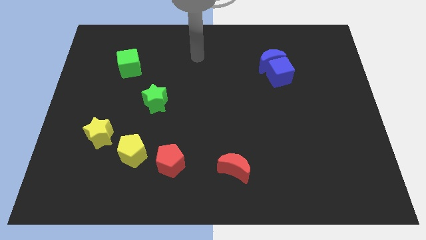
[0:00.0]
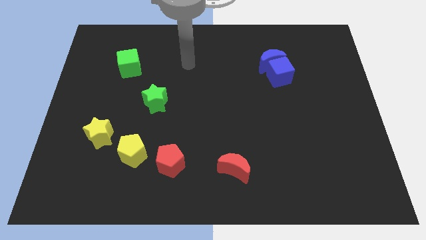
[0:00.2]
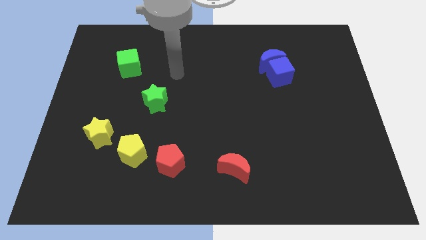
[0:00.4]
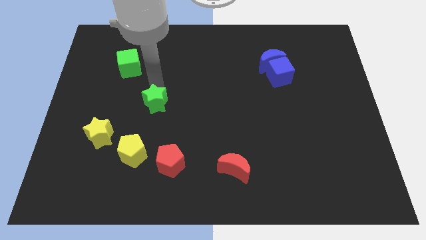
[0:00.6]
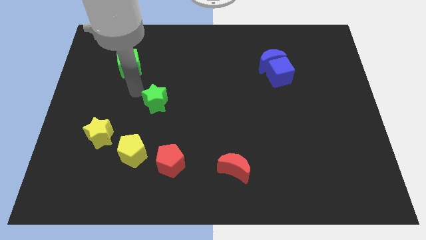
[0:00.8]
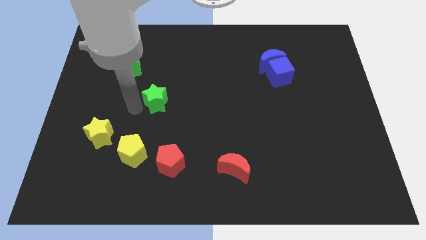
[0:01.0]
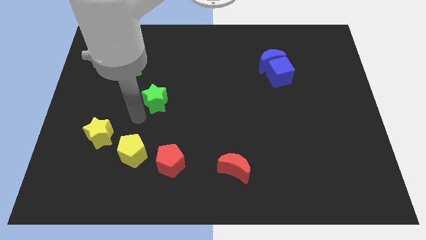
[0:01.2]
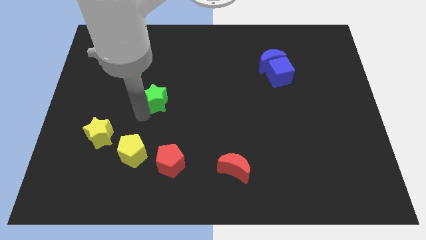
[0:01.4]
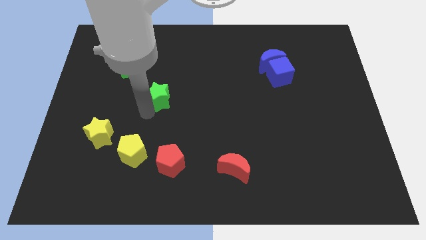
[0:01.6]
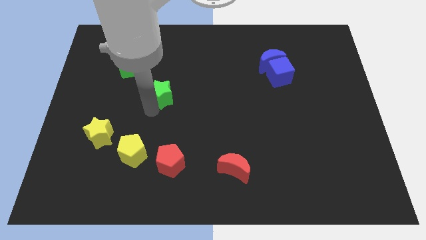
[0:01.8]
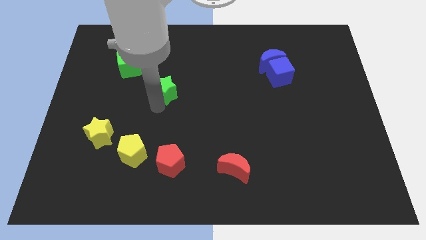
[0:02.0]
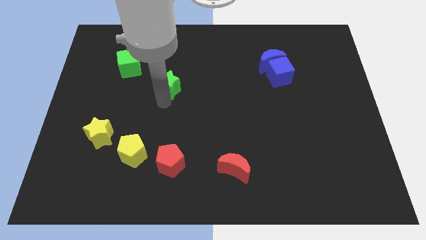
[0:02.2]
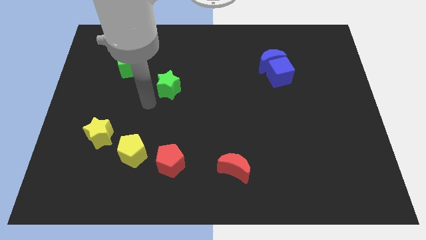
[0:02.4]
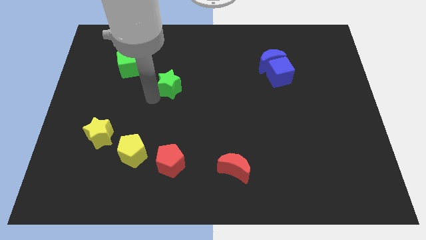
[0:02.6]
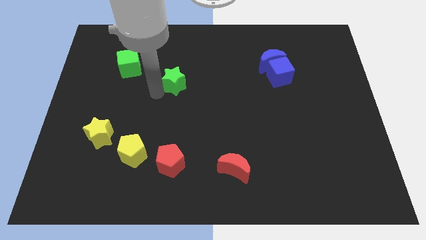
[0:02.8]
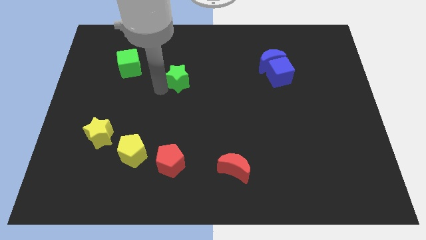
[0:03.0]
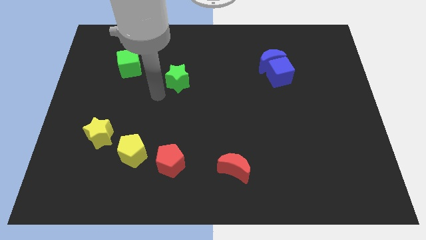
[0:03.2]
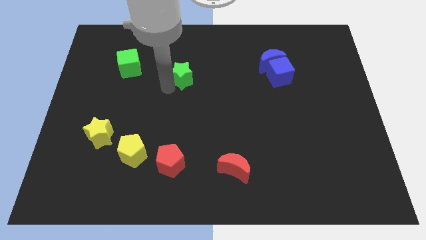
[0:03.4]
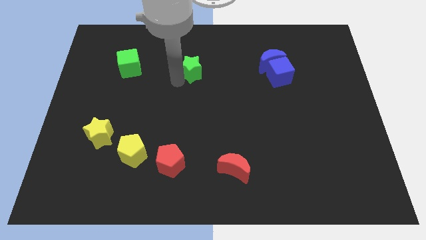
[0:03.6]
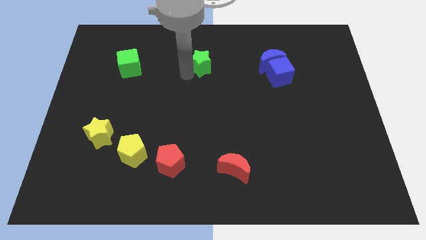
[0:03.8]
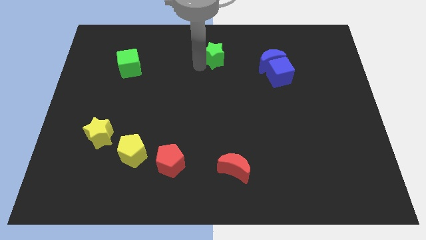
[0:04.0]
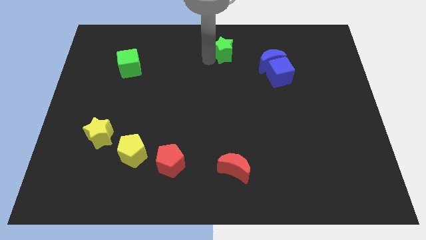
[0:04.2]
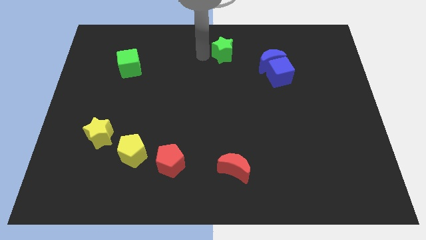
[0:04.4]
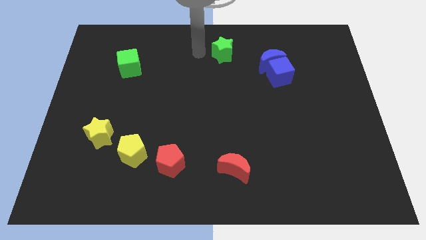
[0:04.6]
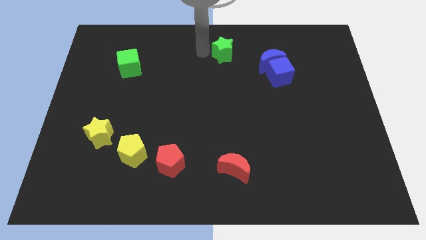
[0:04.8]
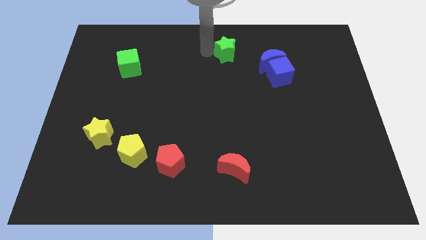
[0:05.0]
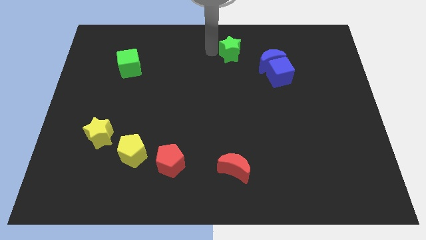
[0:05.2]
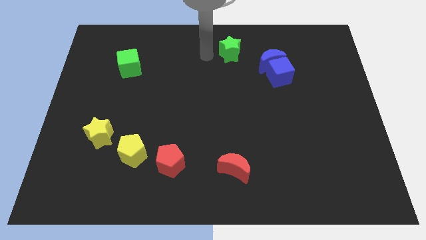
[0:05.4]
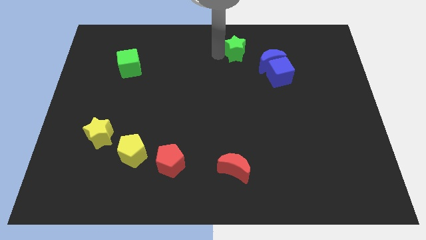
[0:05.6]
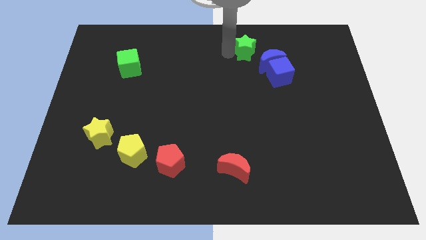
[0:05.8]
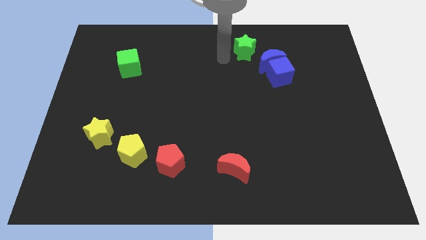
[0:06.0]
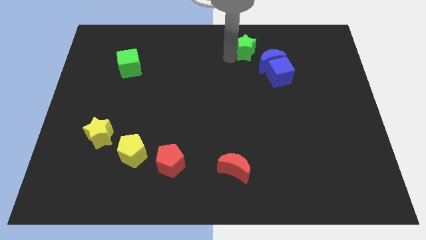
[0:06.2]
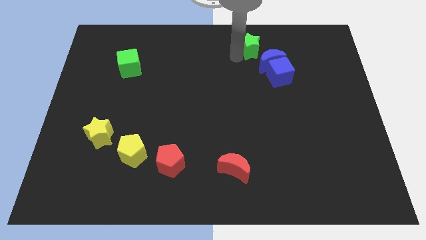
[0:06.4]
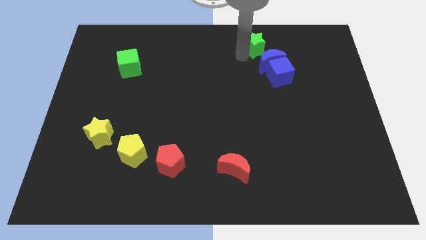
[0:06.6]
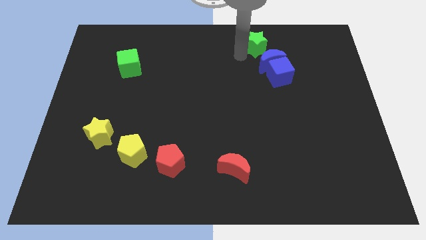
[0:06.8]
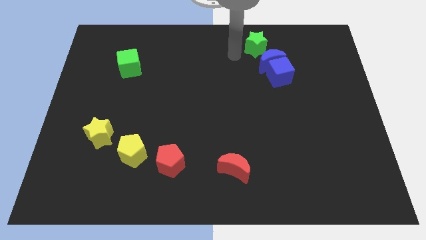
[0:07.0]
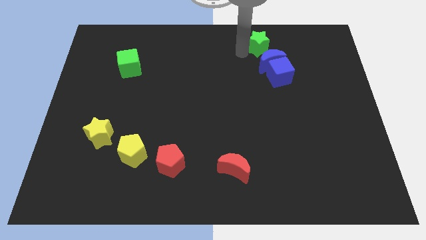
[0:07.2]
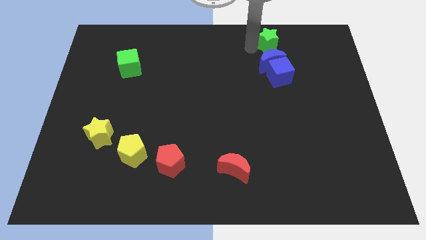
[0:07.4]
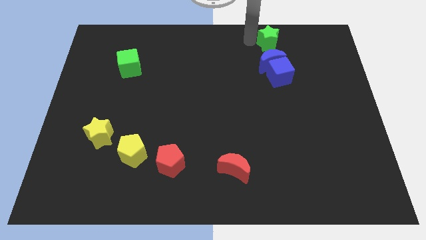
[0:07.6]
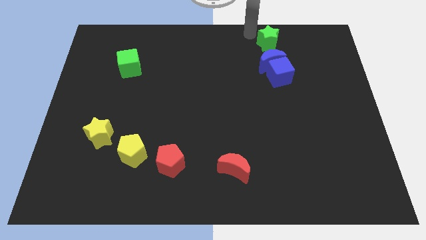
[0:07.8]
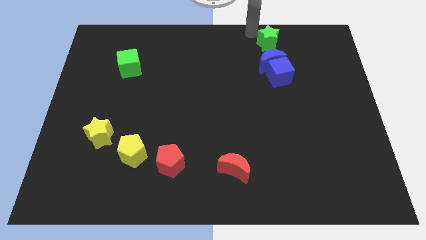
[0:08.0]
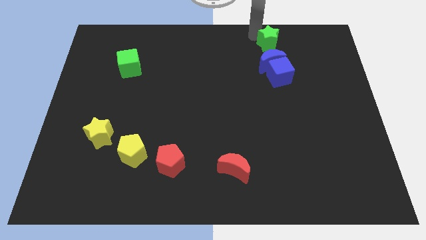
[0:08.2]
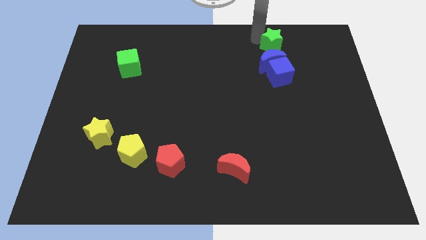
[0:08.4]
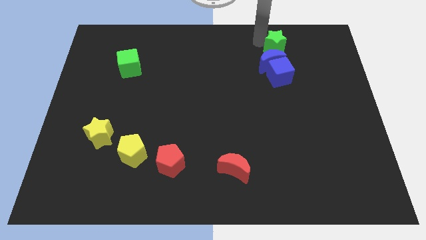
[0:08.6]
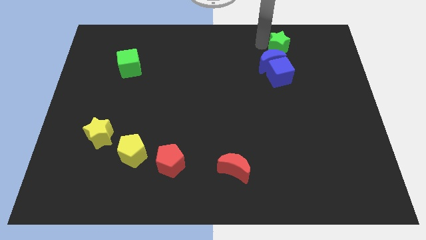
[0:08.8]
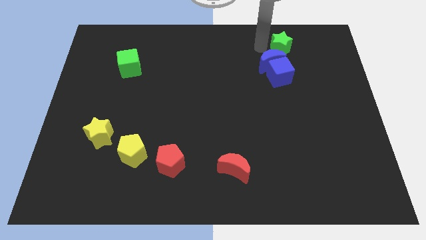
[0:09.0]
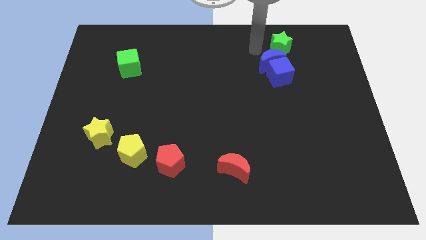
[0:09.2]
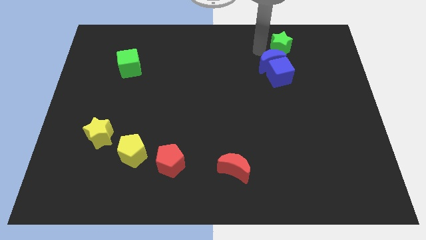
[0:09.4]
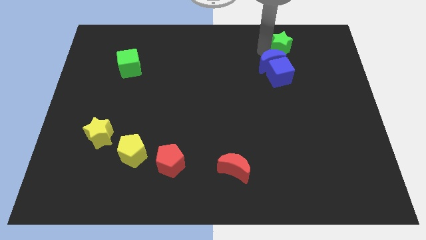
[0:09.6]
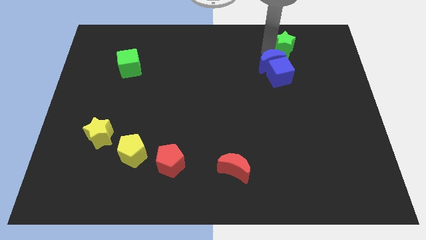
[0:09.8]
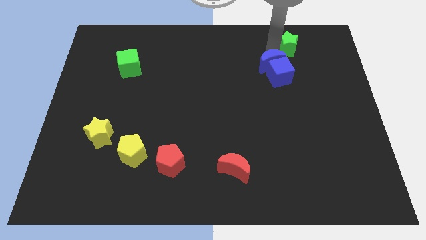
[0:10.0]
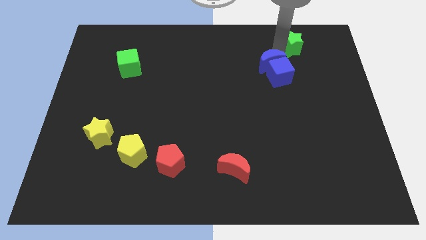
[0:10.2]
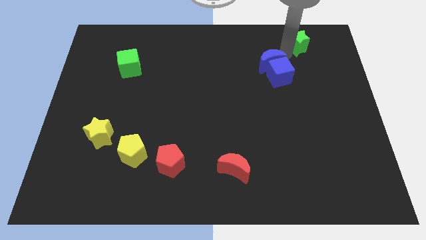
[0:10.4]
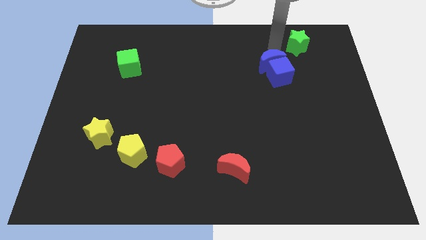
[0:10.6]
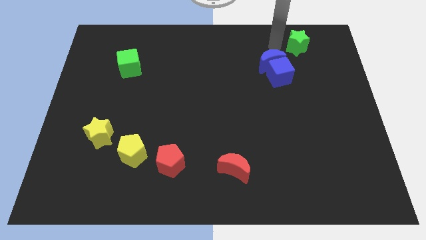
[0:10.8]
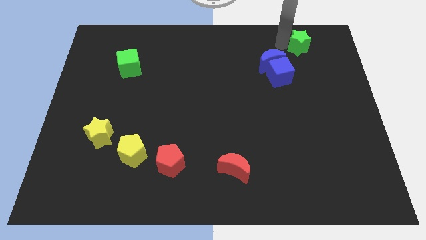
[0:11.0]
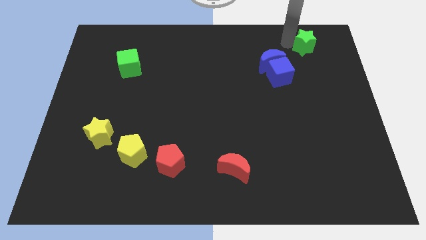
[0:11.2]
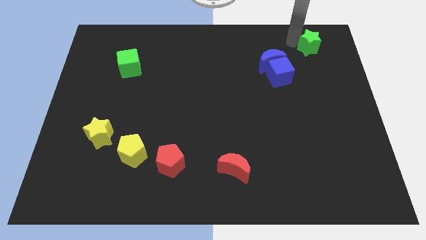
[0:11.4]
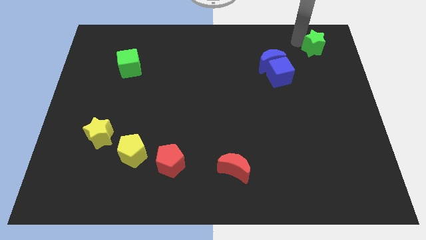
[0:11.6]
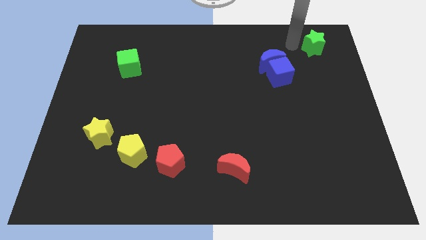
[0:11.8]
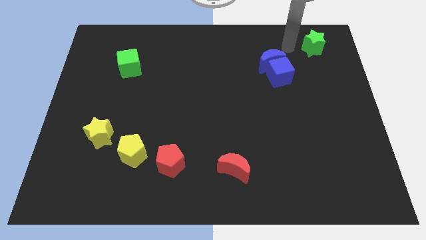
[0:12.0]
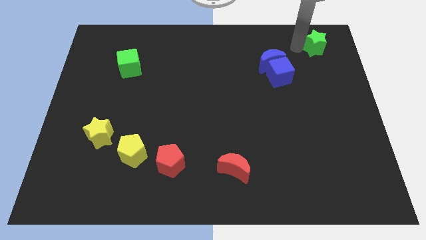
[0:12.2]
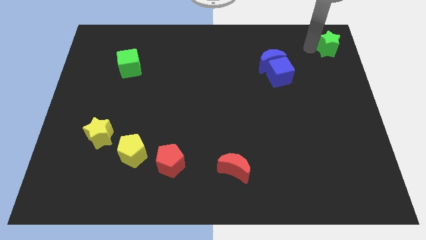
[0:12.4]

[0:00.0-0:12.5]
push the green star to the top right of the board
